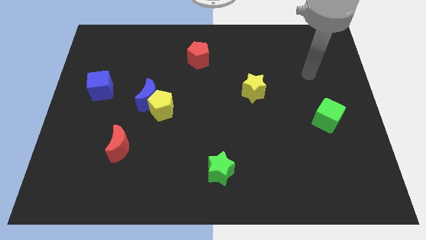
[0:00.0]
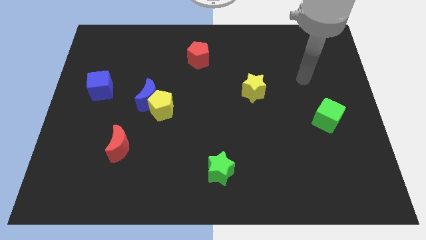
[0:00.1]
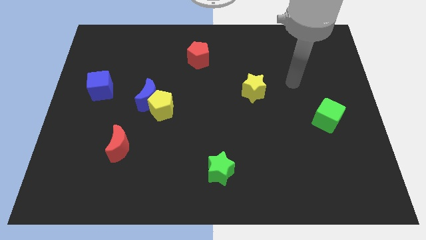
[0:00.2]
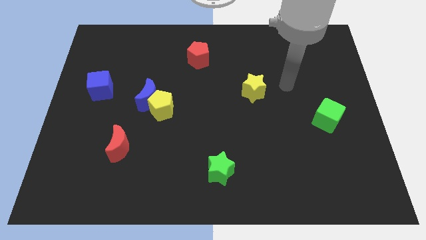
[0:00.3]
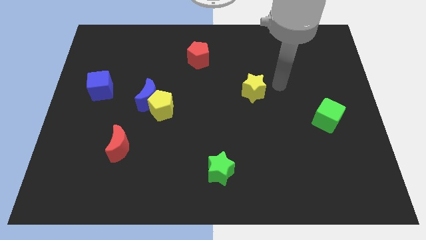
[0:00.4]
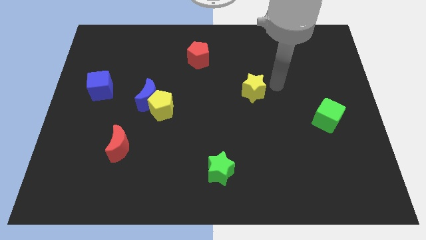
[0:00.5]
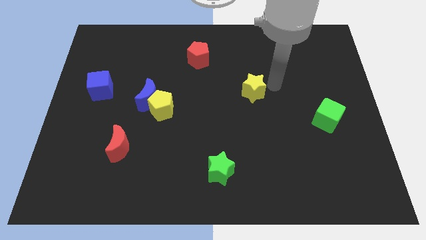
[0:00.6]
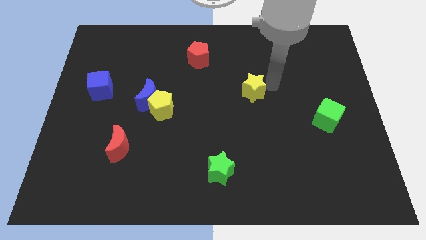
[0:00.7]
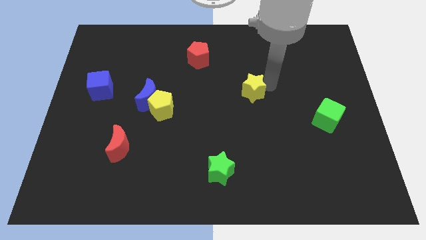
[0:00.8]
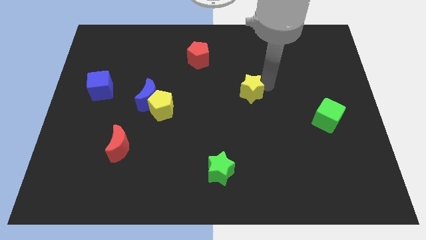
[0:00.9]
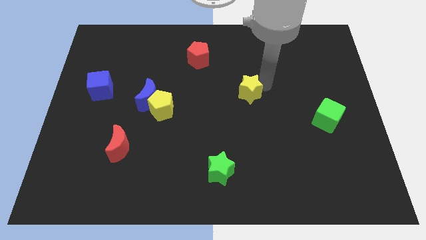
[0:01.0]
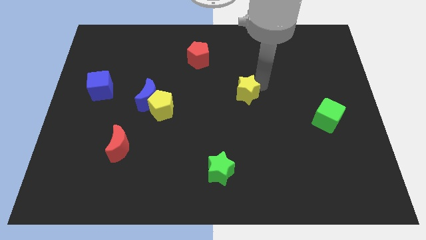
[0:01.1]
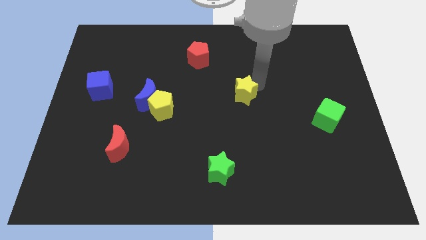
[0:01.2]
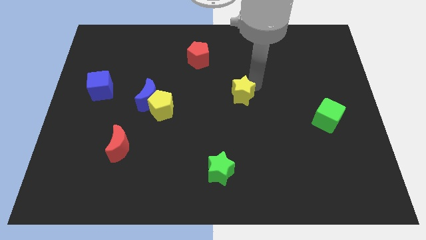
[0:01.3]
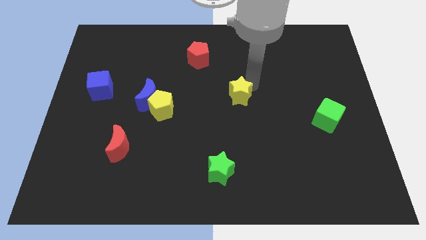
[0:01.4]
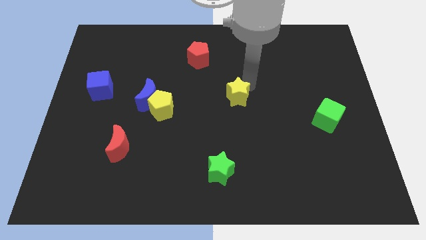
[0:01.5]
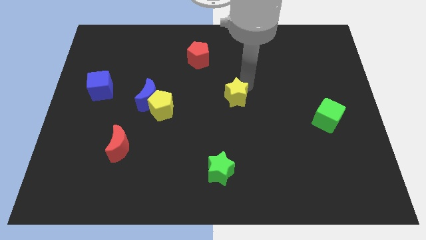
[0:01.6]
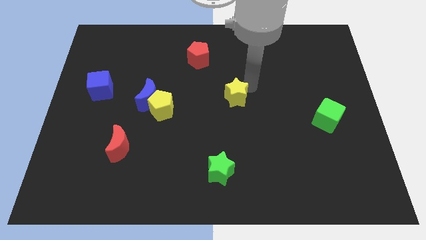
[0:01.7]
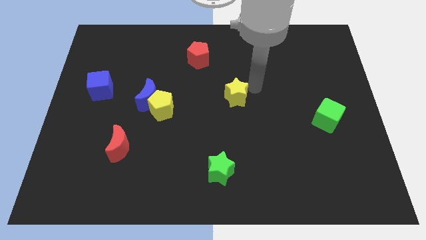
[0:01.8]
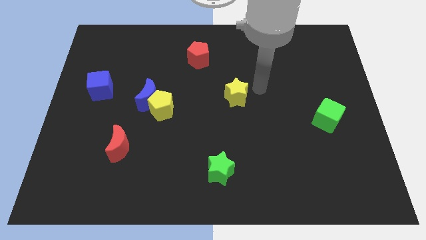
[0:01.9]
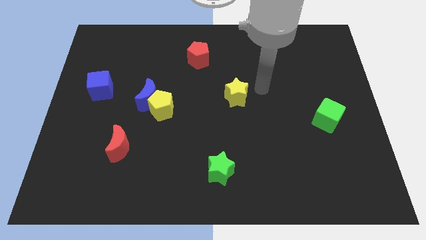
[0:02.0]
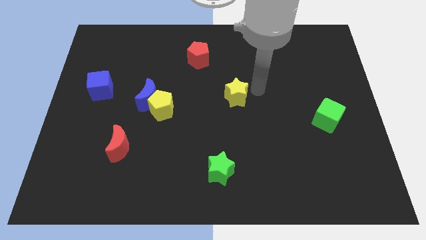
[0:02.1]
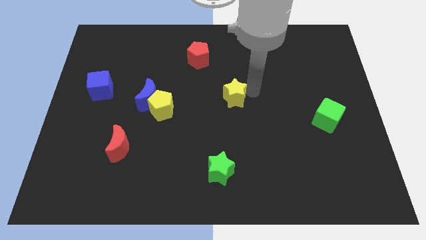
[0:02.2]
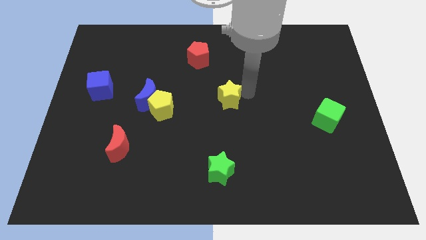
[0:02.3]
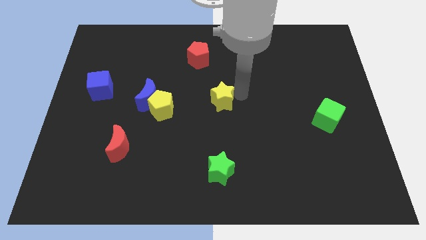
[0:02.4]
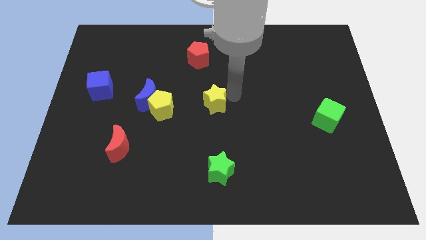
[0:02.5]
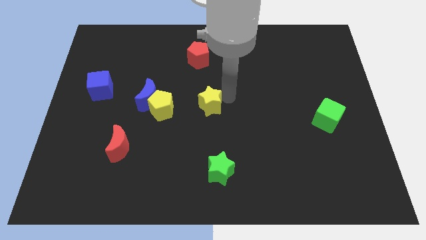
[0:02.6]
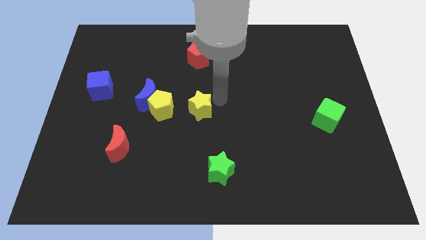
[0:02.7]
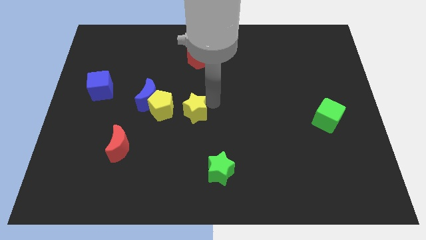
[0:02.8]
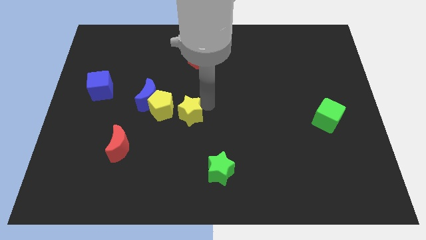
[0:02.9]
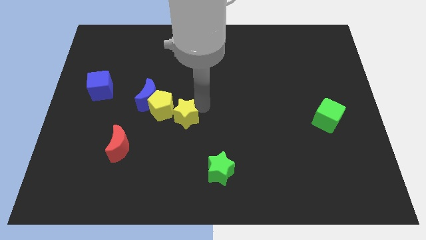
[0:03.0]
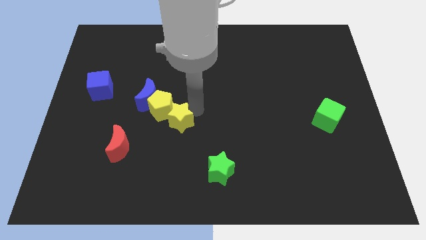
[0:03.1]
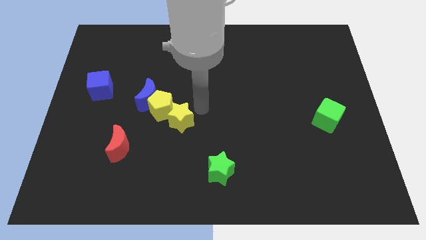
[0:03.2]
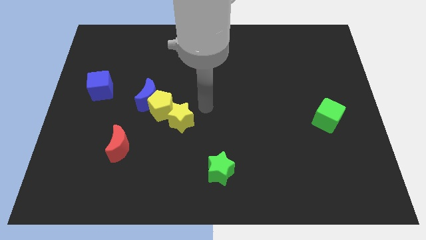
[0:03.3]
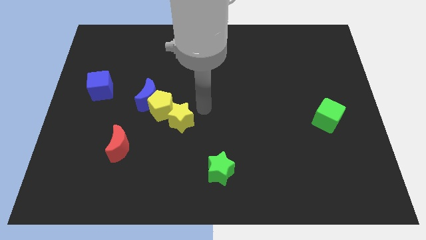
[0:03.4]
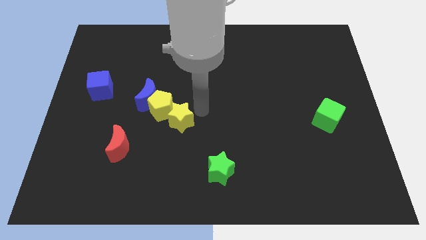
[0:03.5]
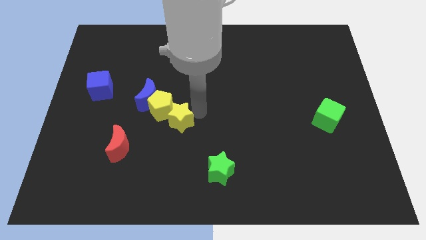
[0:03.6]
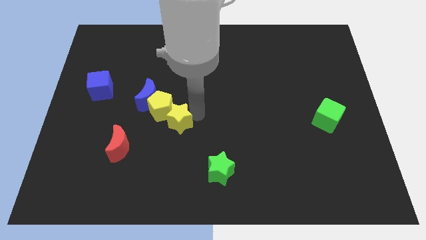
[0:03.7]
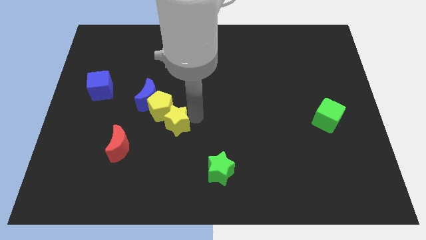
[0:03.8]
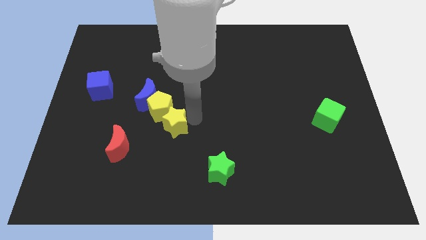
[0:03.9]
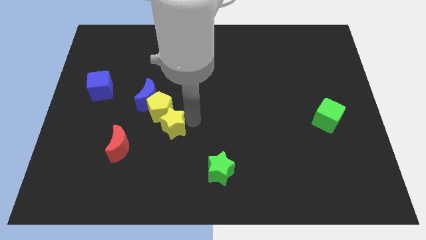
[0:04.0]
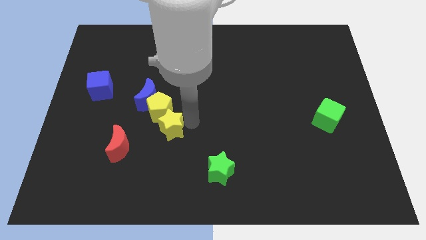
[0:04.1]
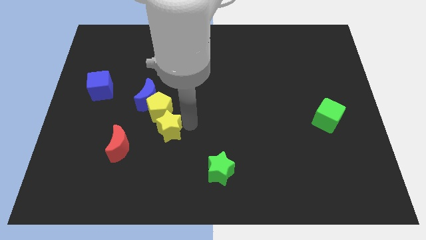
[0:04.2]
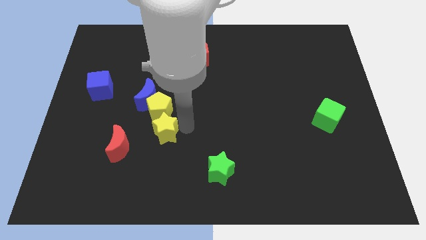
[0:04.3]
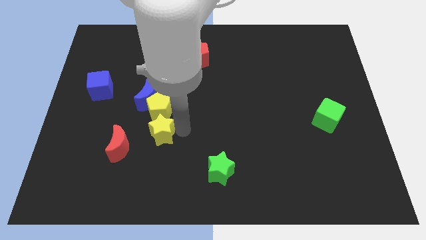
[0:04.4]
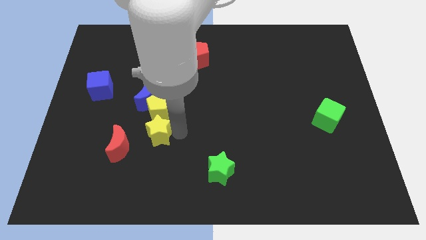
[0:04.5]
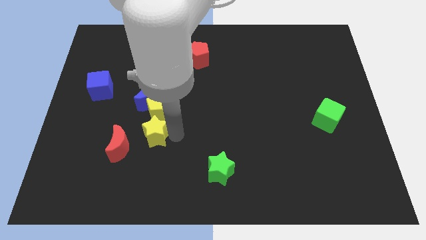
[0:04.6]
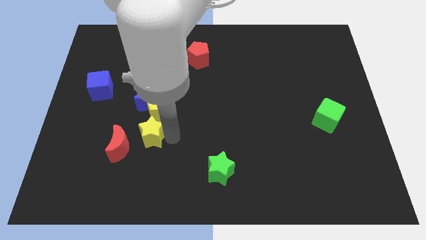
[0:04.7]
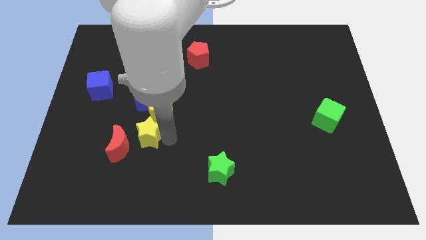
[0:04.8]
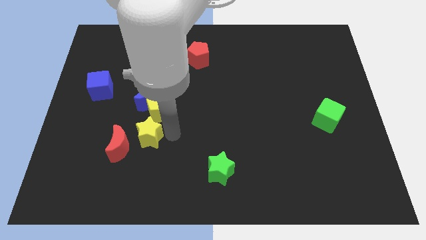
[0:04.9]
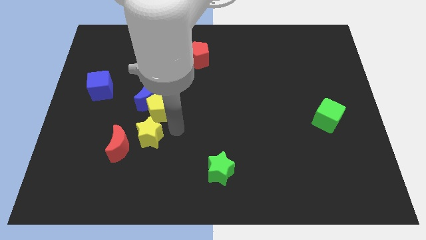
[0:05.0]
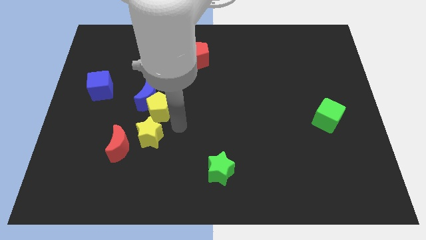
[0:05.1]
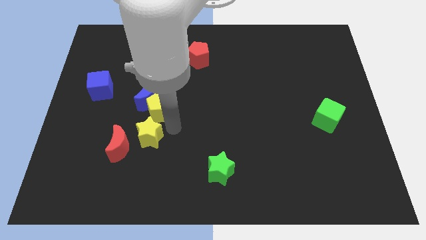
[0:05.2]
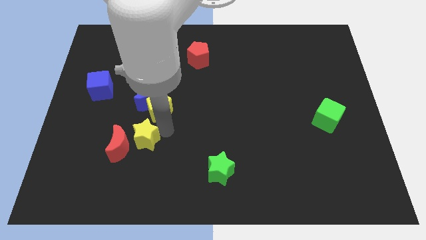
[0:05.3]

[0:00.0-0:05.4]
move the yellow star to the red moon

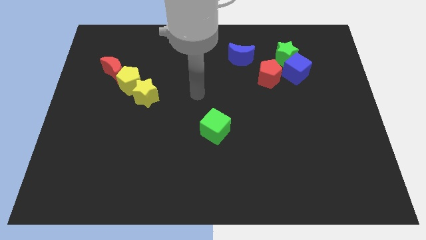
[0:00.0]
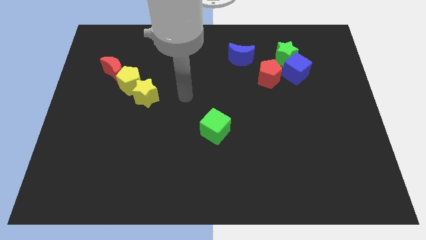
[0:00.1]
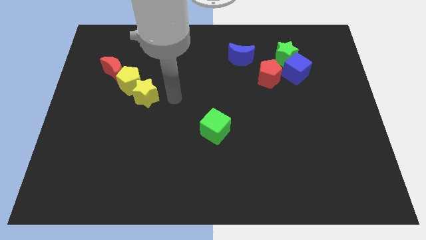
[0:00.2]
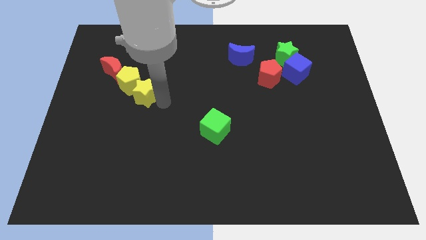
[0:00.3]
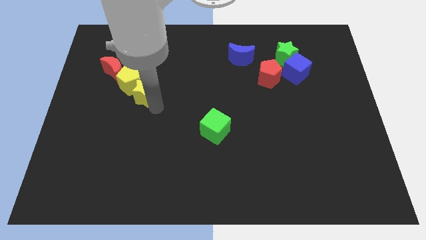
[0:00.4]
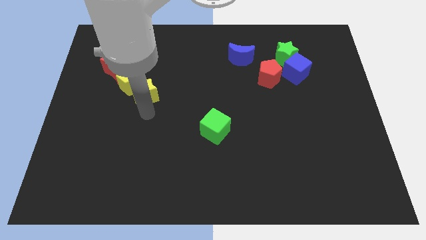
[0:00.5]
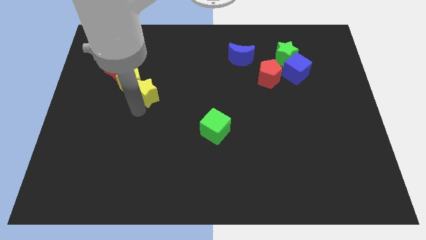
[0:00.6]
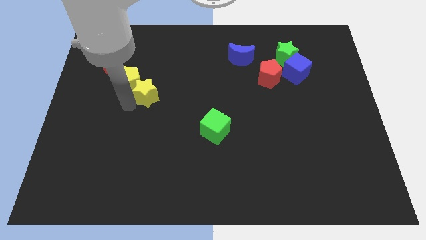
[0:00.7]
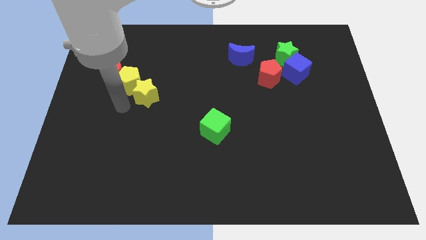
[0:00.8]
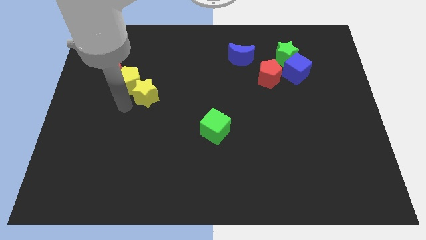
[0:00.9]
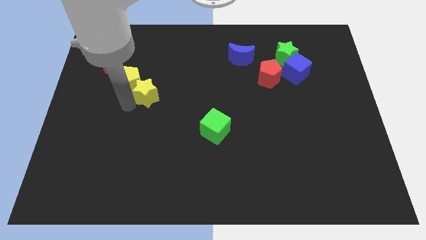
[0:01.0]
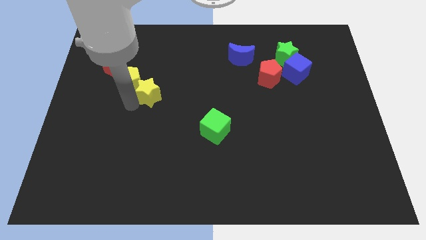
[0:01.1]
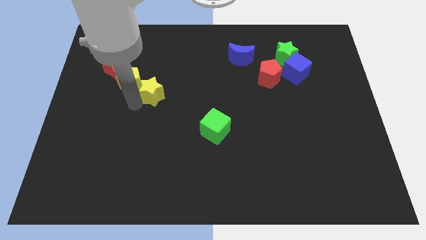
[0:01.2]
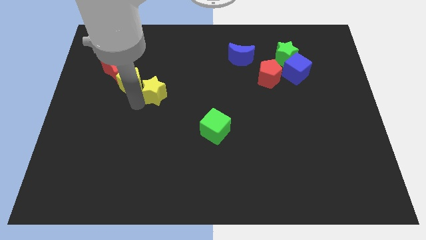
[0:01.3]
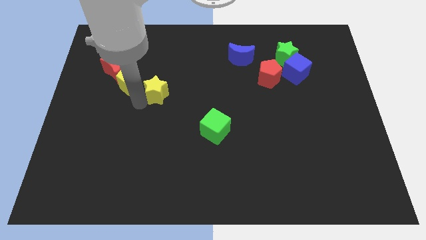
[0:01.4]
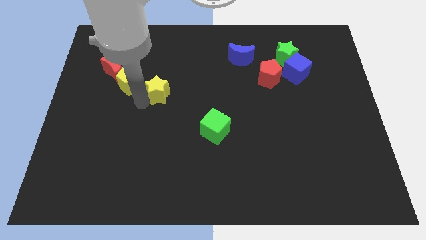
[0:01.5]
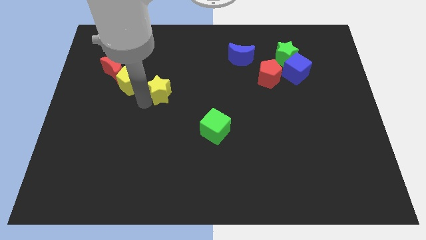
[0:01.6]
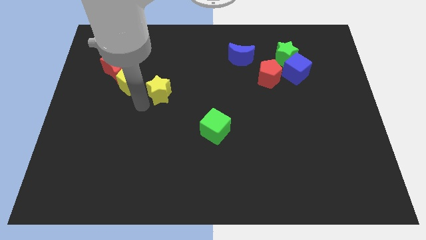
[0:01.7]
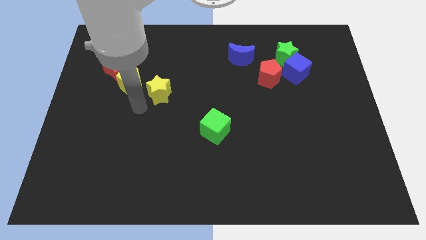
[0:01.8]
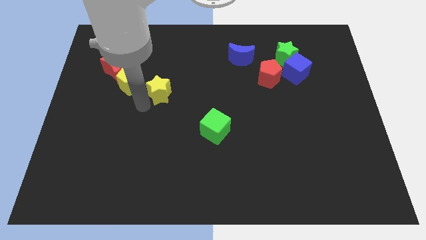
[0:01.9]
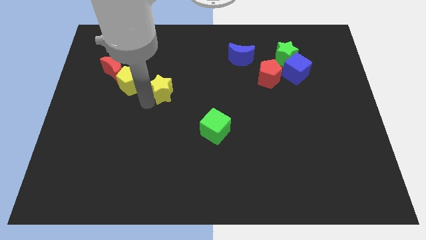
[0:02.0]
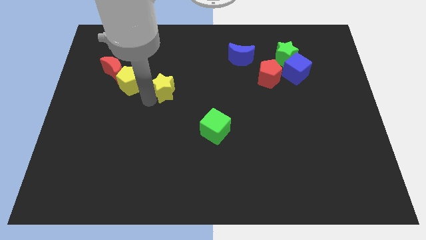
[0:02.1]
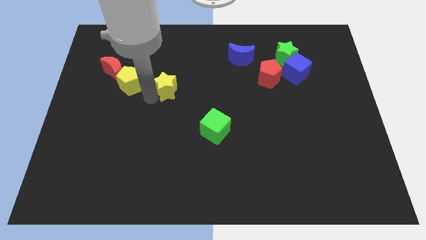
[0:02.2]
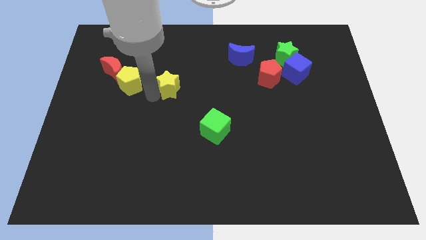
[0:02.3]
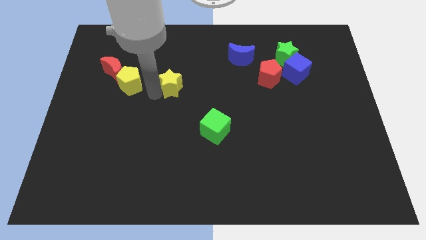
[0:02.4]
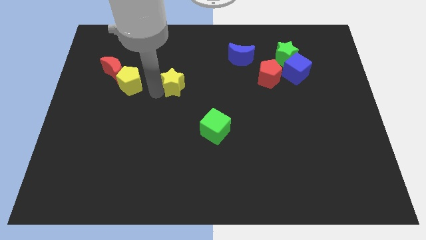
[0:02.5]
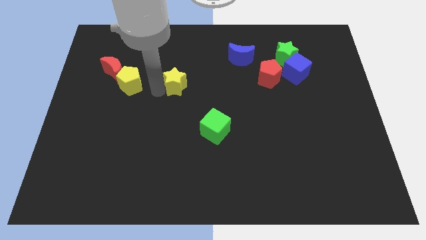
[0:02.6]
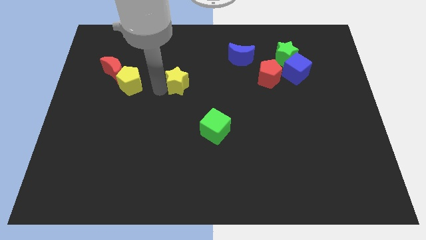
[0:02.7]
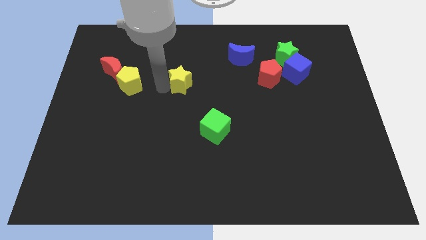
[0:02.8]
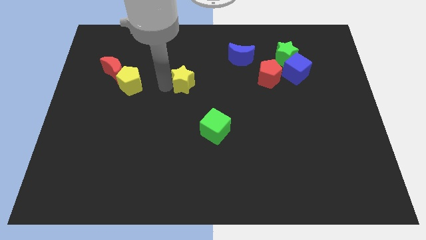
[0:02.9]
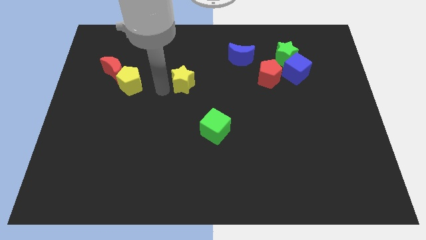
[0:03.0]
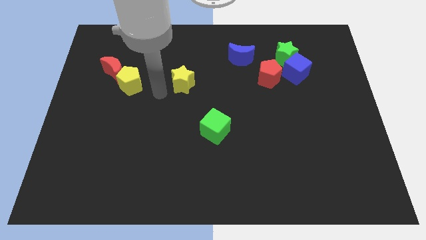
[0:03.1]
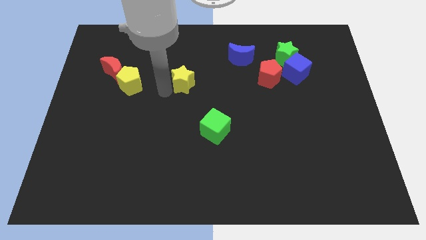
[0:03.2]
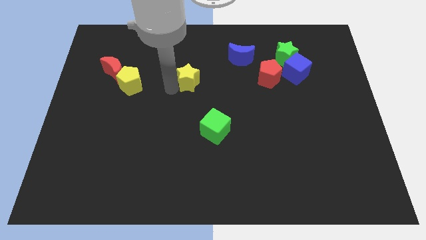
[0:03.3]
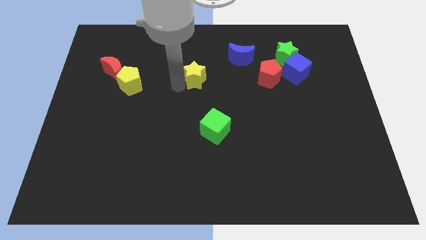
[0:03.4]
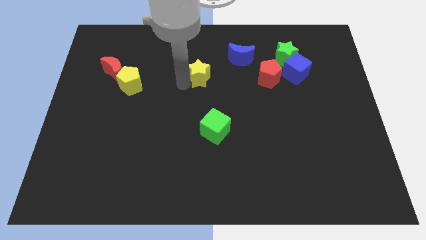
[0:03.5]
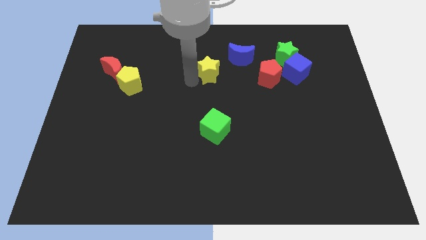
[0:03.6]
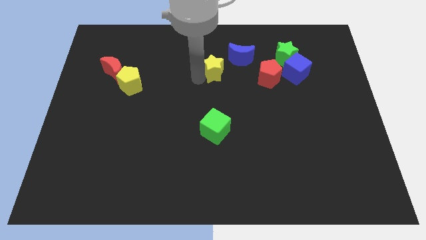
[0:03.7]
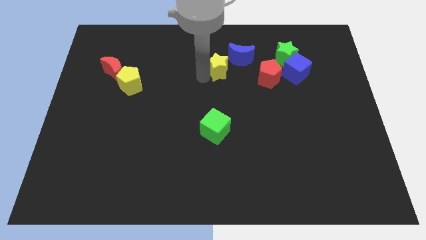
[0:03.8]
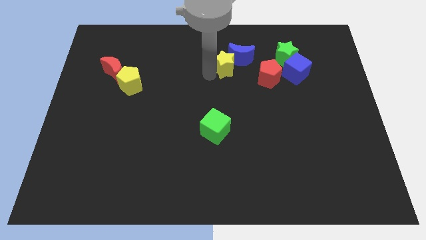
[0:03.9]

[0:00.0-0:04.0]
move the yellow star towards the blue moon
